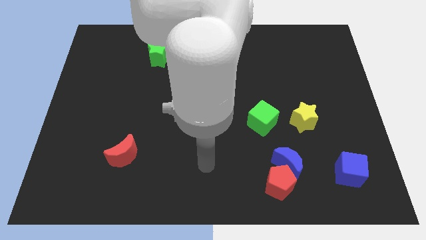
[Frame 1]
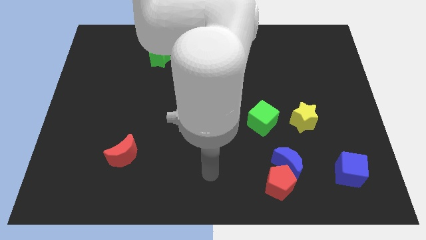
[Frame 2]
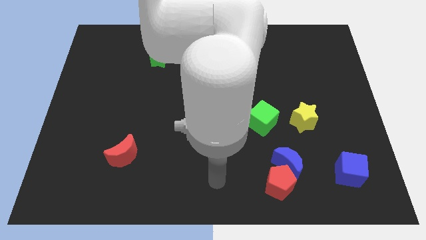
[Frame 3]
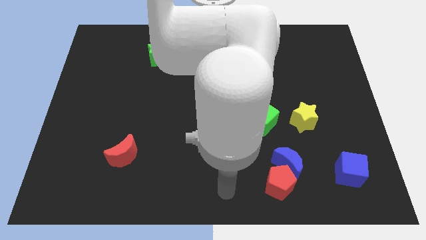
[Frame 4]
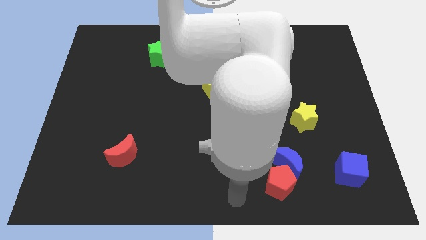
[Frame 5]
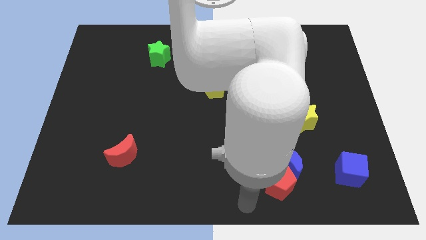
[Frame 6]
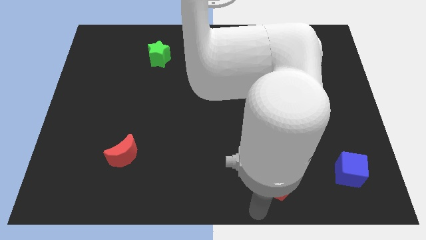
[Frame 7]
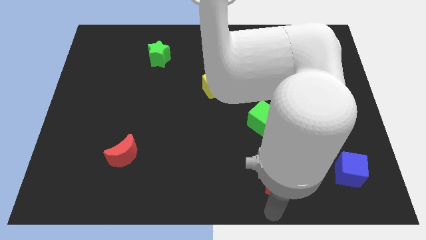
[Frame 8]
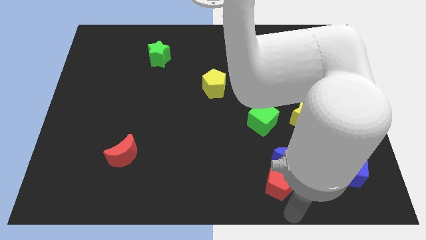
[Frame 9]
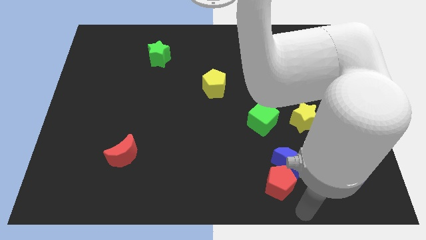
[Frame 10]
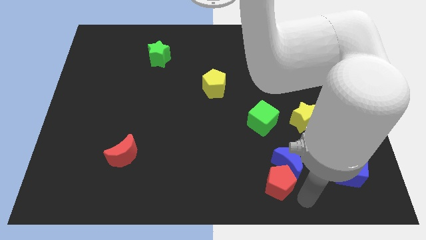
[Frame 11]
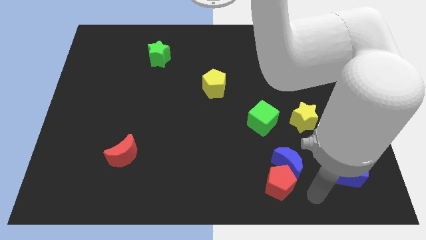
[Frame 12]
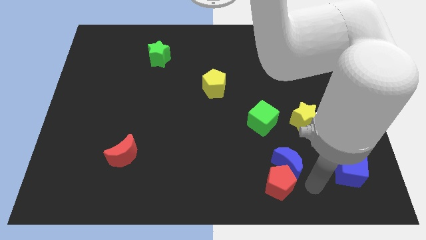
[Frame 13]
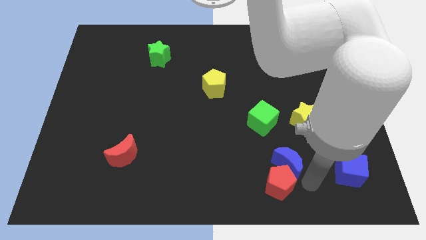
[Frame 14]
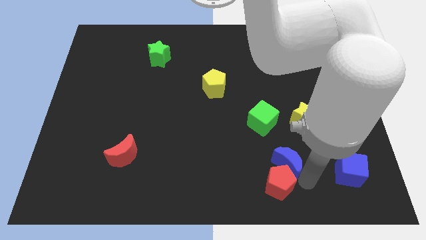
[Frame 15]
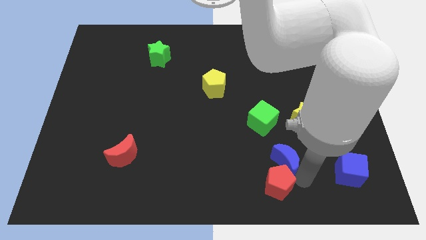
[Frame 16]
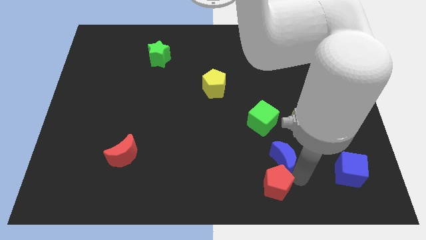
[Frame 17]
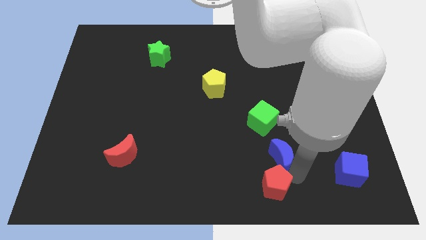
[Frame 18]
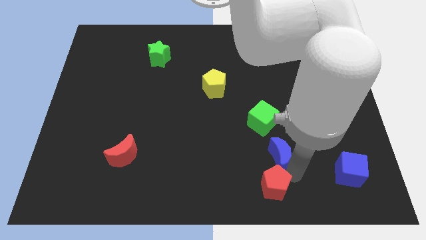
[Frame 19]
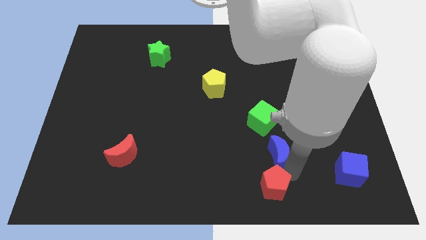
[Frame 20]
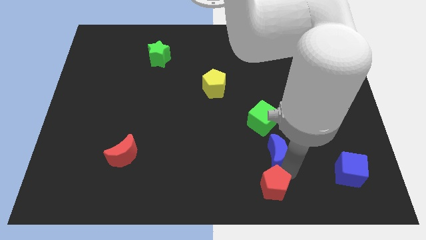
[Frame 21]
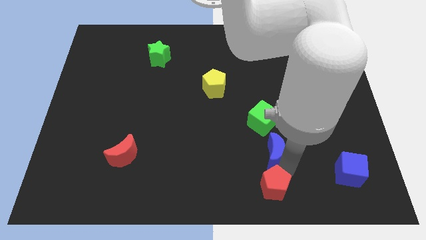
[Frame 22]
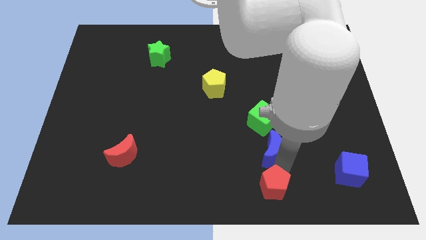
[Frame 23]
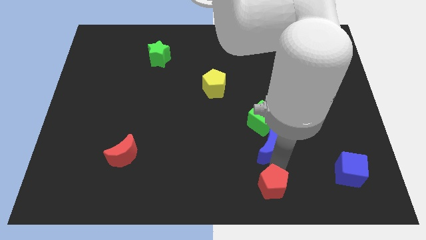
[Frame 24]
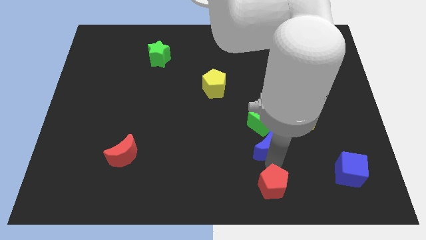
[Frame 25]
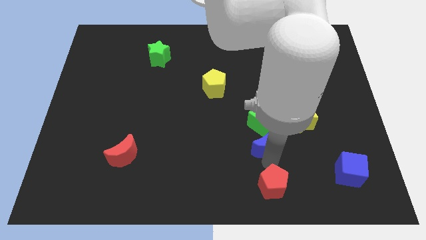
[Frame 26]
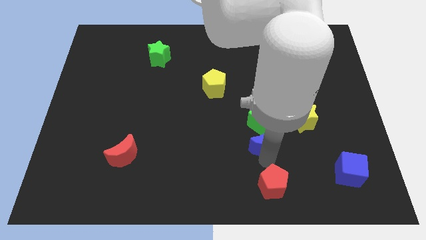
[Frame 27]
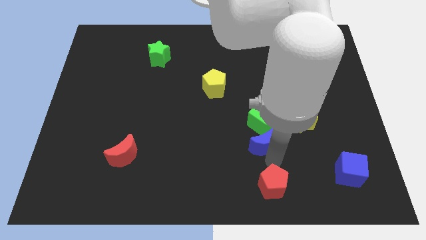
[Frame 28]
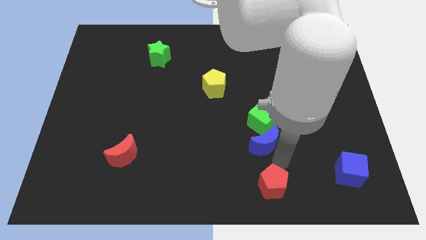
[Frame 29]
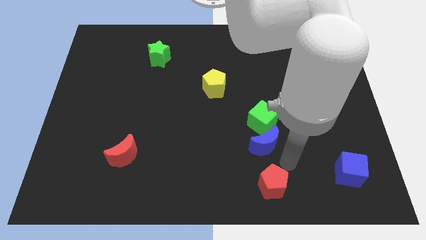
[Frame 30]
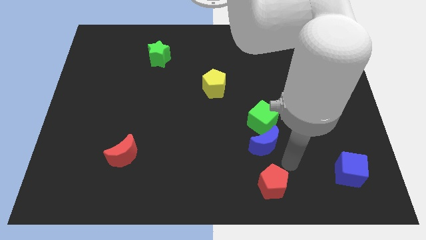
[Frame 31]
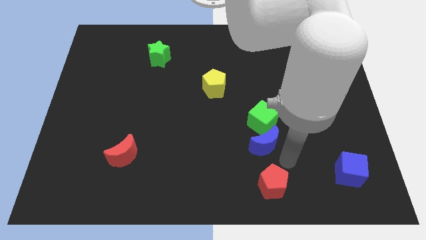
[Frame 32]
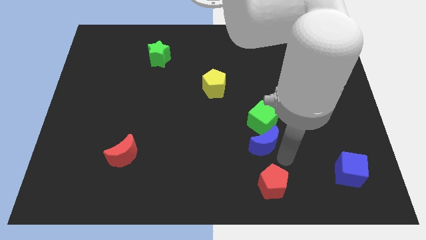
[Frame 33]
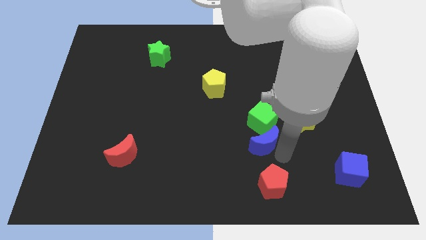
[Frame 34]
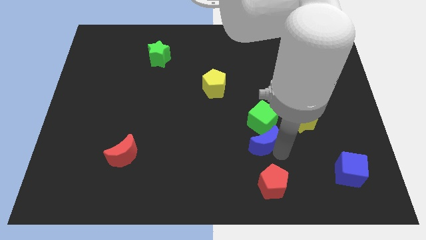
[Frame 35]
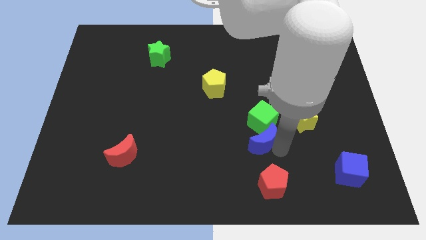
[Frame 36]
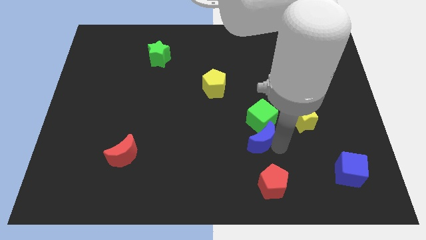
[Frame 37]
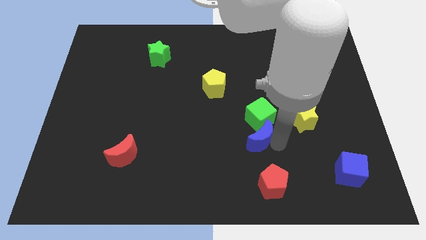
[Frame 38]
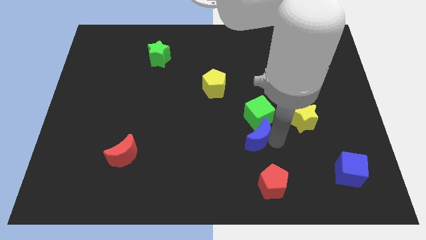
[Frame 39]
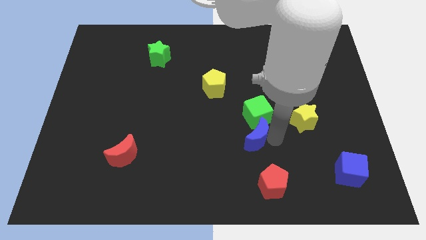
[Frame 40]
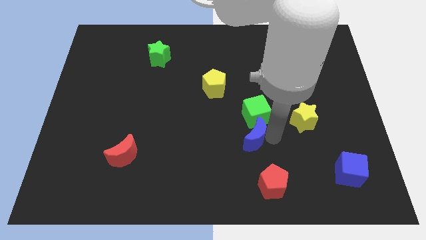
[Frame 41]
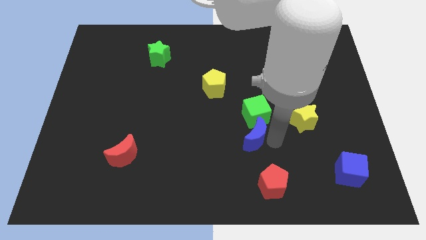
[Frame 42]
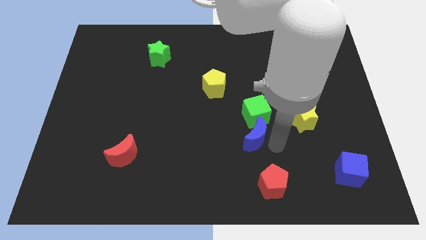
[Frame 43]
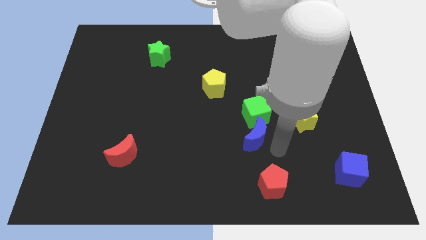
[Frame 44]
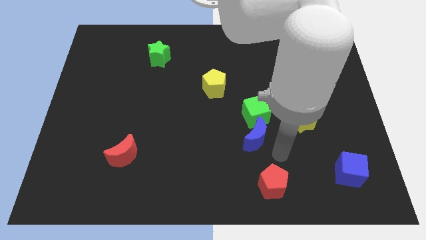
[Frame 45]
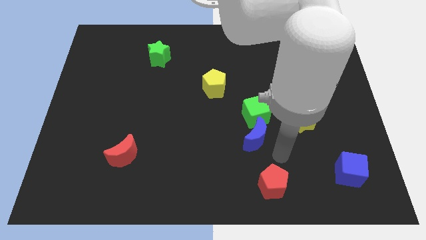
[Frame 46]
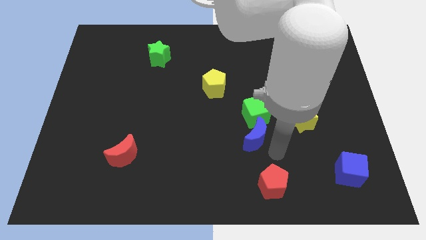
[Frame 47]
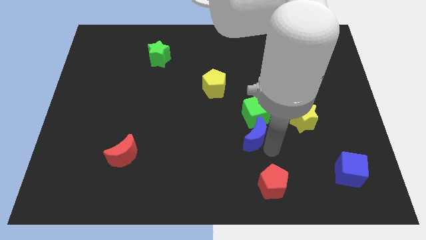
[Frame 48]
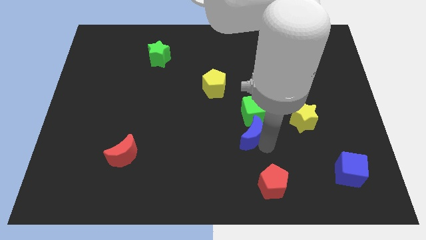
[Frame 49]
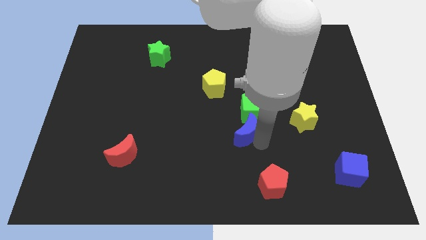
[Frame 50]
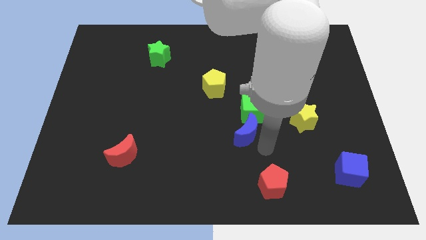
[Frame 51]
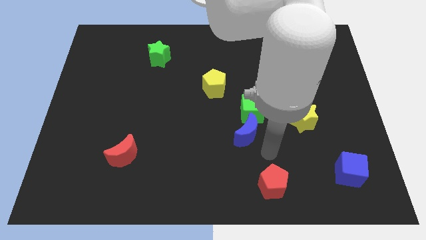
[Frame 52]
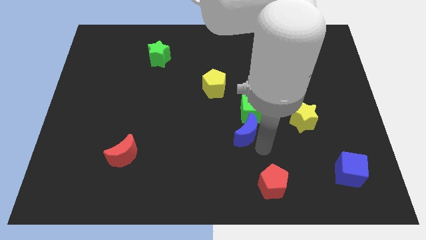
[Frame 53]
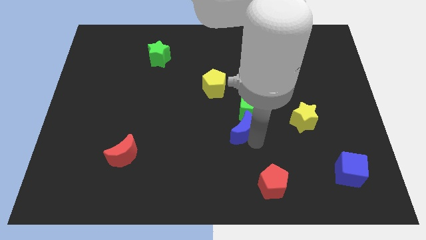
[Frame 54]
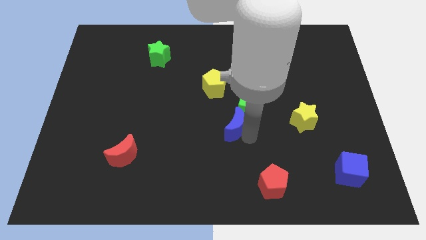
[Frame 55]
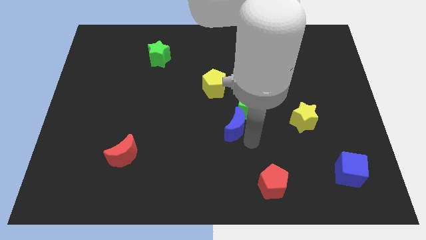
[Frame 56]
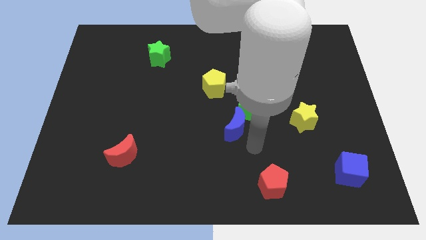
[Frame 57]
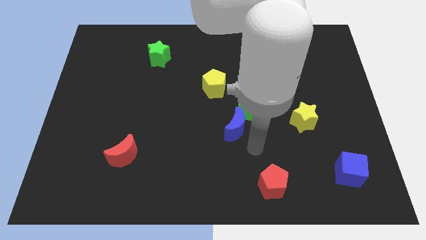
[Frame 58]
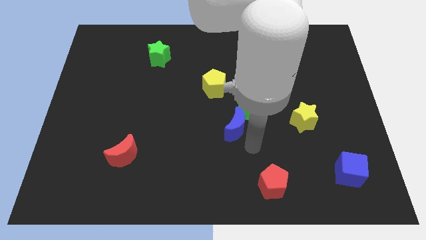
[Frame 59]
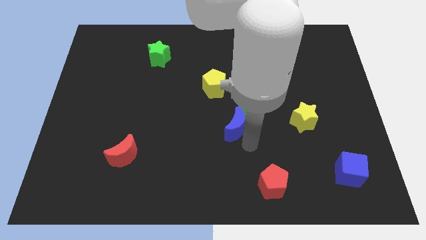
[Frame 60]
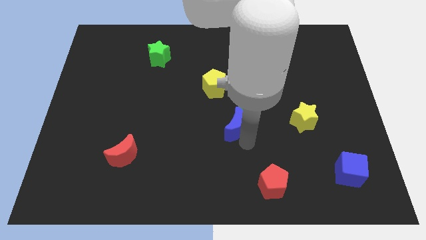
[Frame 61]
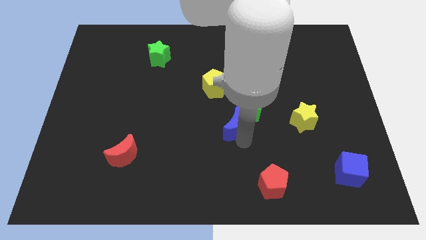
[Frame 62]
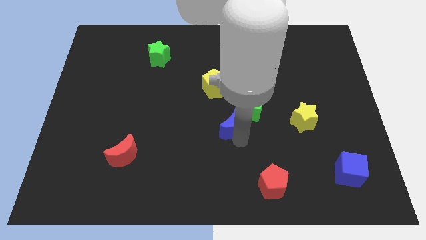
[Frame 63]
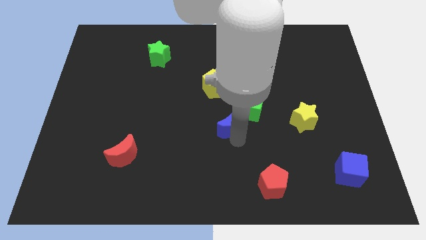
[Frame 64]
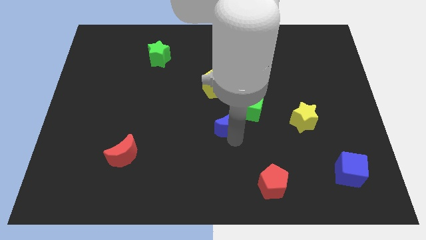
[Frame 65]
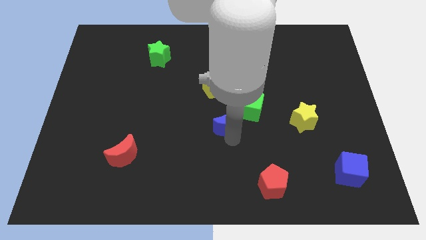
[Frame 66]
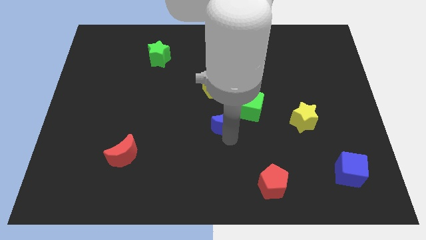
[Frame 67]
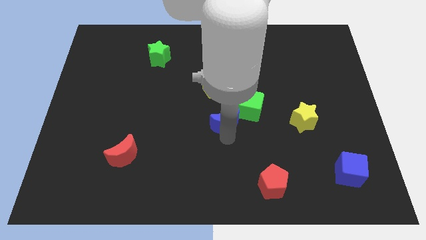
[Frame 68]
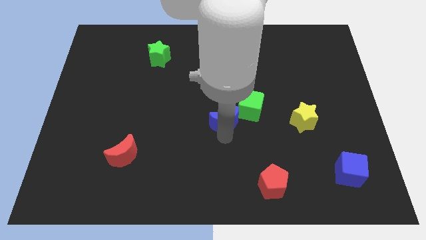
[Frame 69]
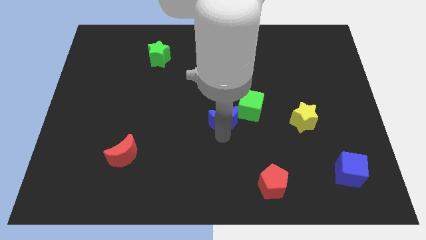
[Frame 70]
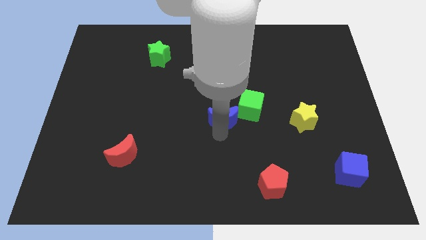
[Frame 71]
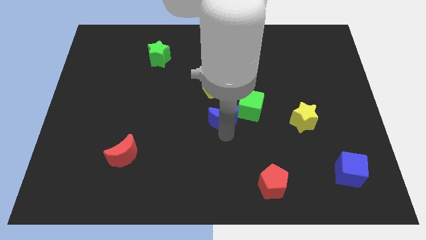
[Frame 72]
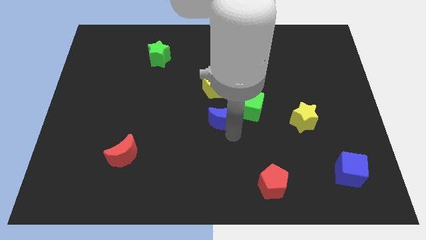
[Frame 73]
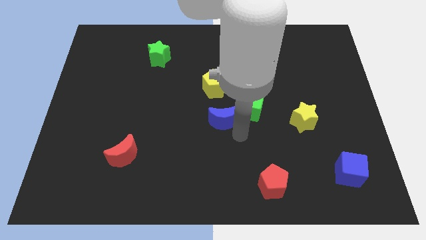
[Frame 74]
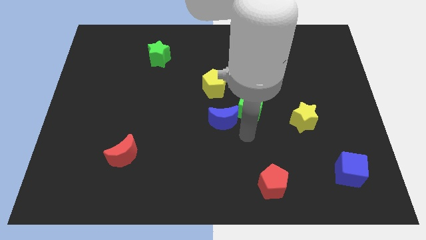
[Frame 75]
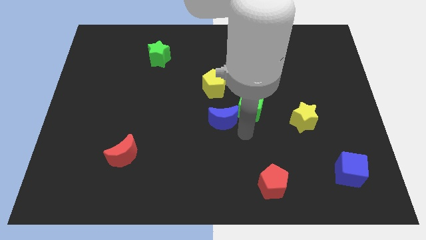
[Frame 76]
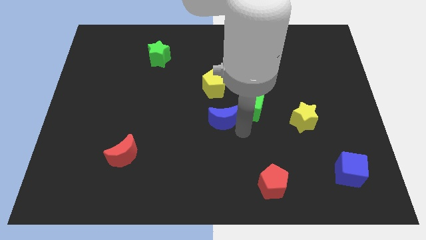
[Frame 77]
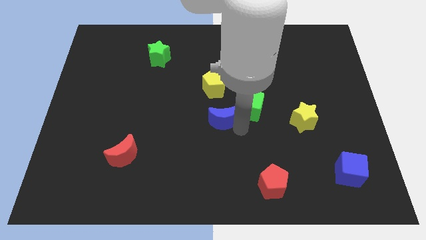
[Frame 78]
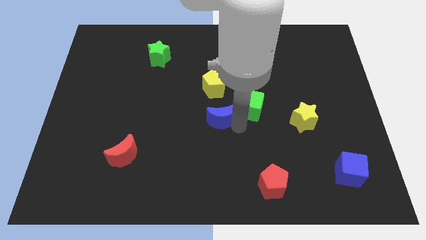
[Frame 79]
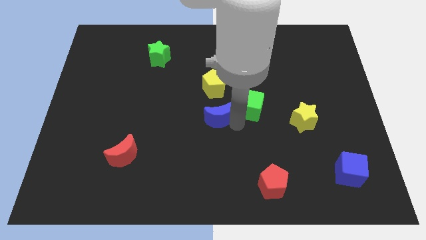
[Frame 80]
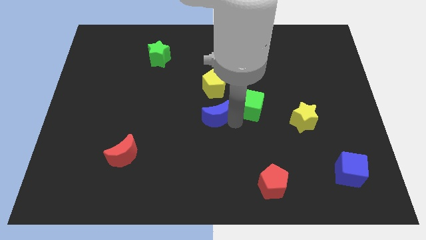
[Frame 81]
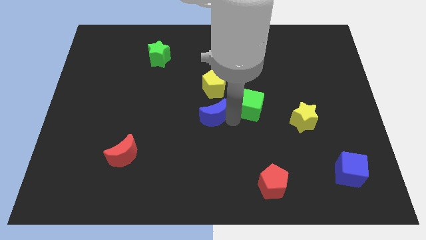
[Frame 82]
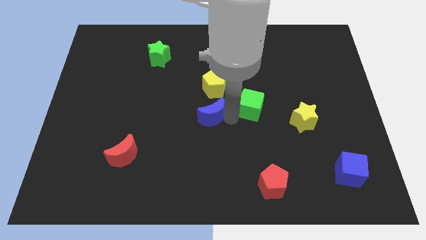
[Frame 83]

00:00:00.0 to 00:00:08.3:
slide the blue moon upwards and then to the left
